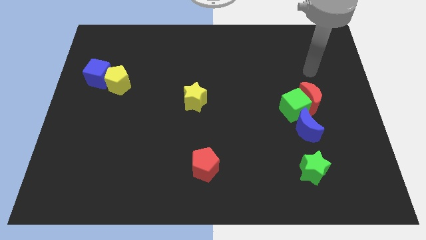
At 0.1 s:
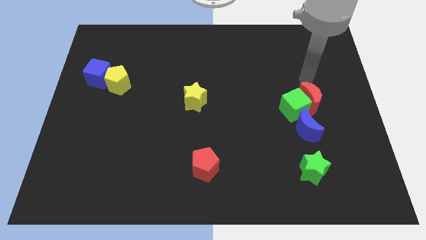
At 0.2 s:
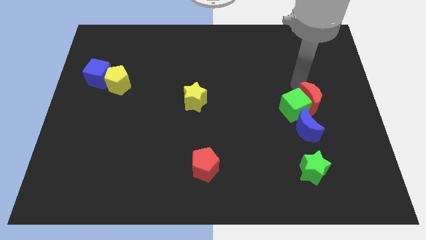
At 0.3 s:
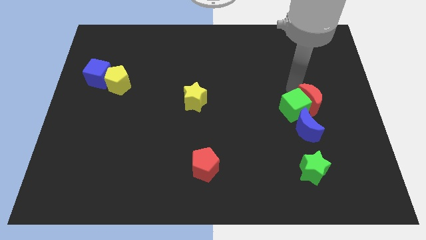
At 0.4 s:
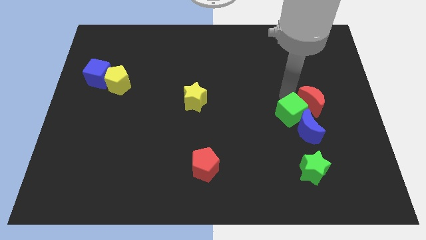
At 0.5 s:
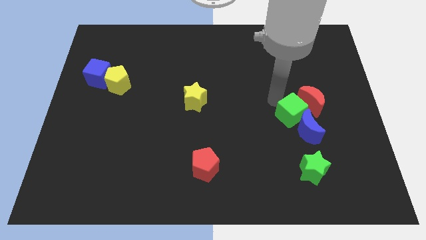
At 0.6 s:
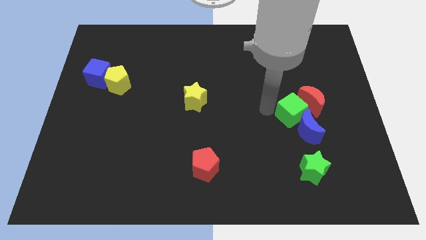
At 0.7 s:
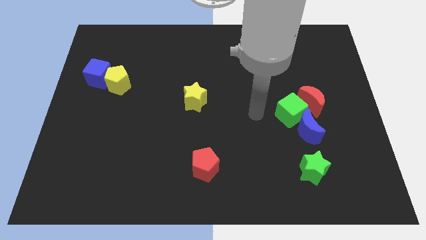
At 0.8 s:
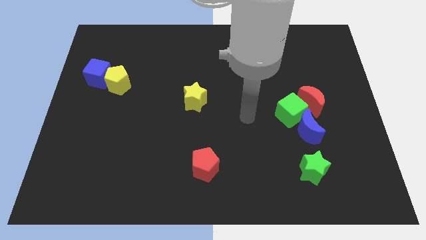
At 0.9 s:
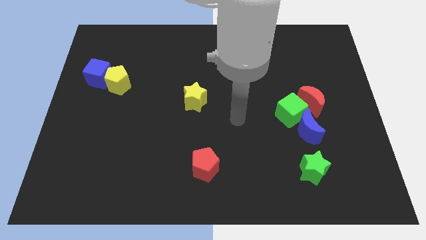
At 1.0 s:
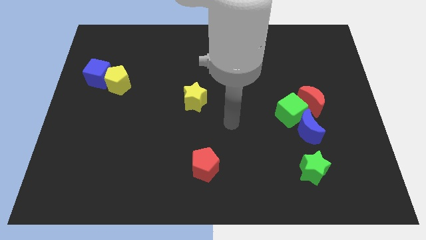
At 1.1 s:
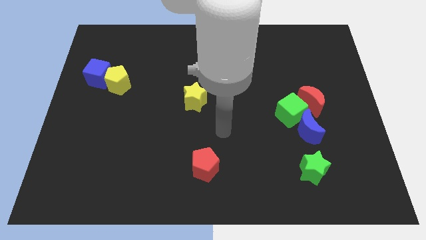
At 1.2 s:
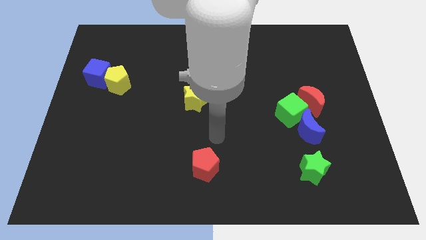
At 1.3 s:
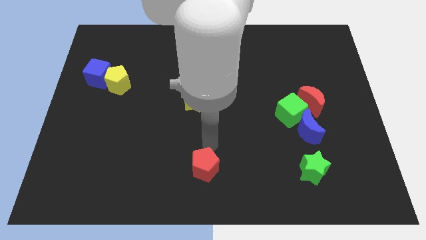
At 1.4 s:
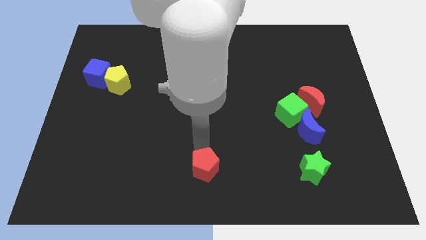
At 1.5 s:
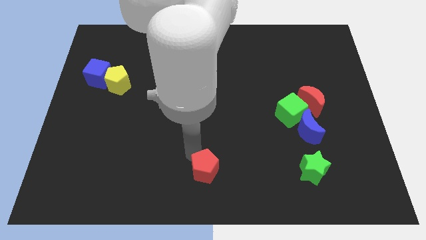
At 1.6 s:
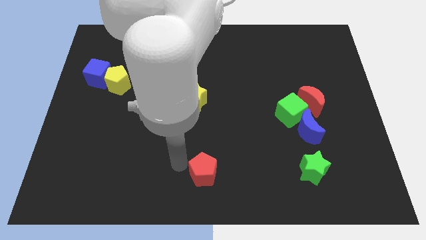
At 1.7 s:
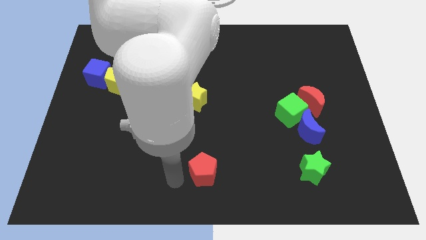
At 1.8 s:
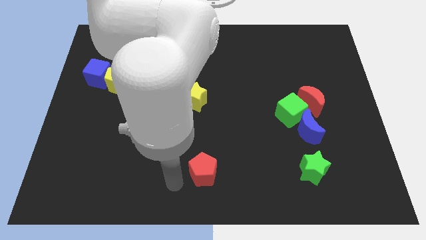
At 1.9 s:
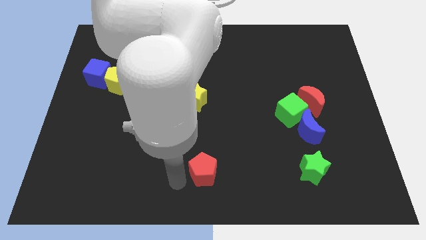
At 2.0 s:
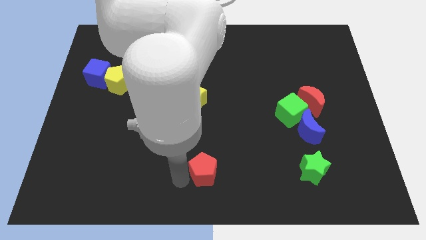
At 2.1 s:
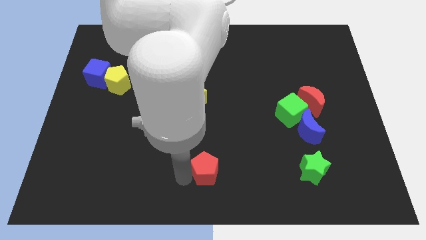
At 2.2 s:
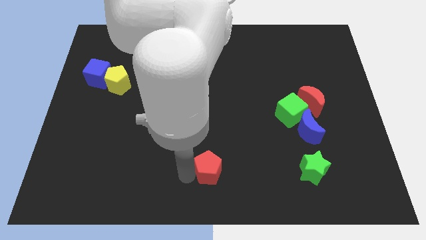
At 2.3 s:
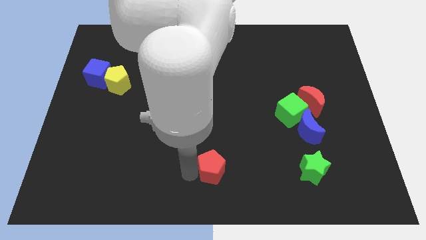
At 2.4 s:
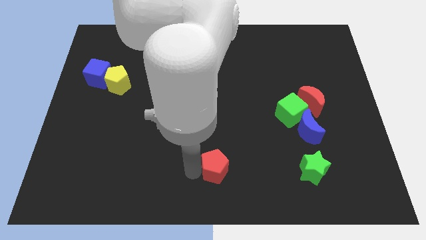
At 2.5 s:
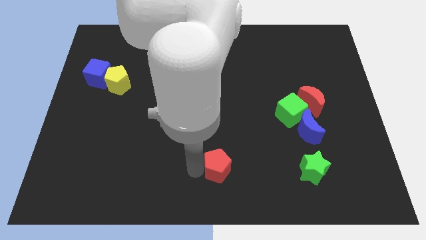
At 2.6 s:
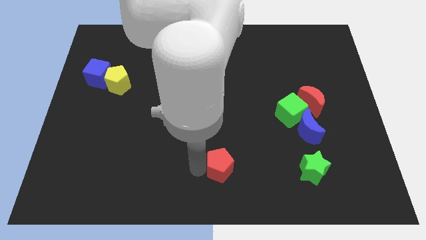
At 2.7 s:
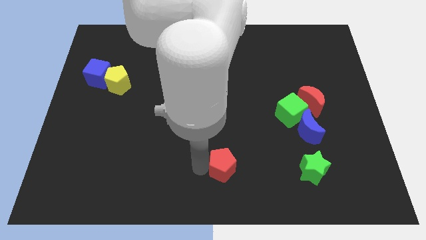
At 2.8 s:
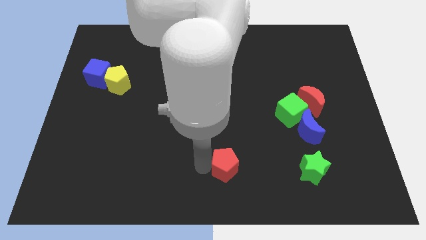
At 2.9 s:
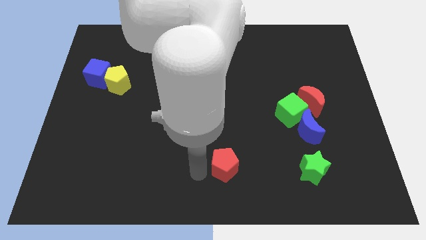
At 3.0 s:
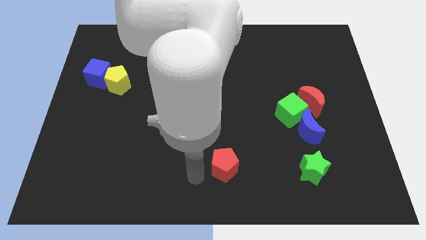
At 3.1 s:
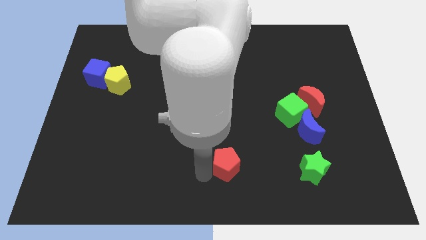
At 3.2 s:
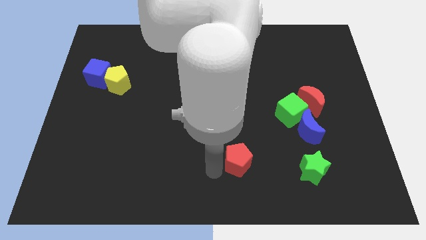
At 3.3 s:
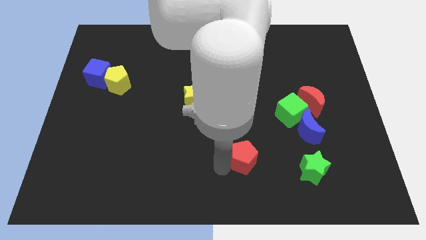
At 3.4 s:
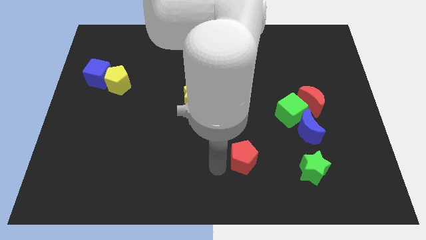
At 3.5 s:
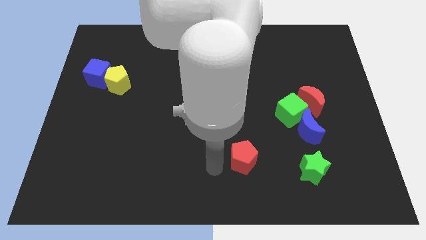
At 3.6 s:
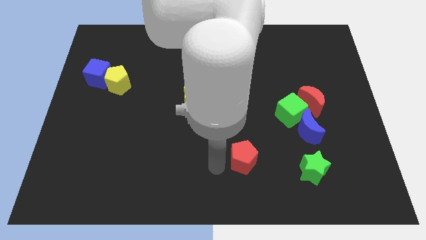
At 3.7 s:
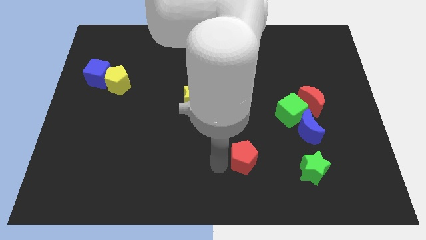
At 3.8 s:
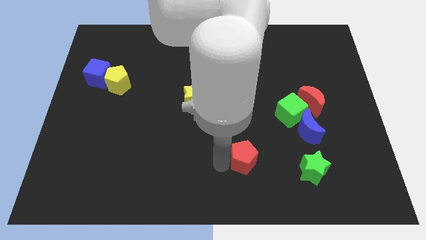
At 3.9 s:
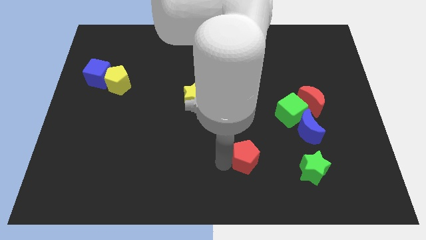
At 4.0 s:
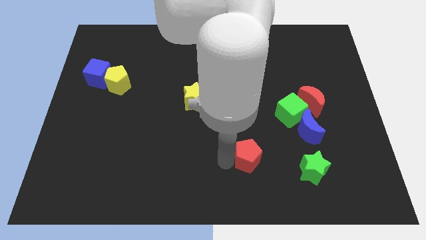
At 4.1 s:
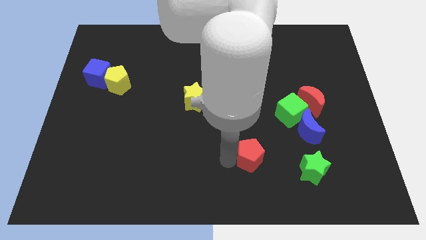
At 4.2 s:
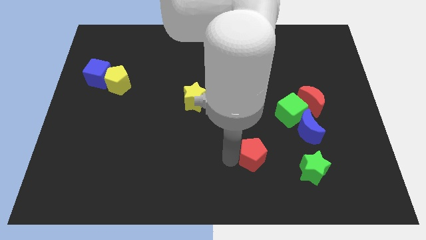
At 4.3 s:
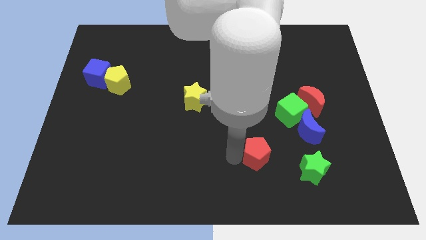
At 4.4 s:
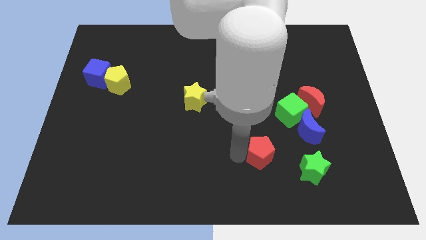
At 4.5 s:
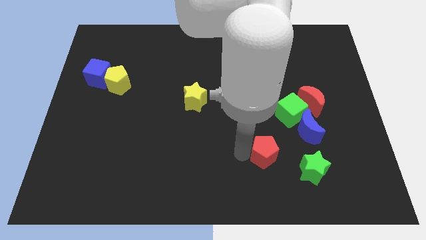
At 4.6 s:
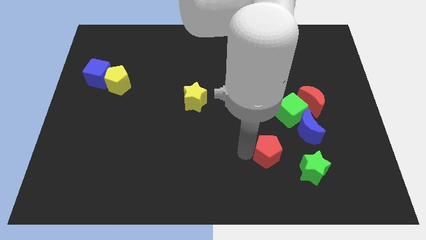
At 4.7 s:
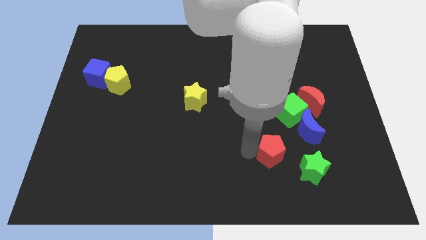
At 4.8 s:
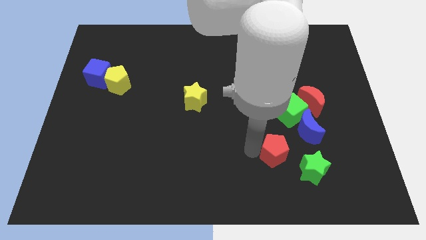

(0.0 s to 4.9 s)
push the red pentagon below the green cube

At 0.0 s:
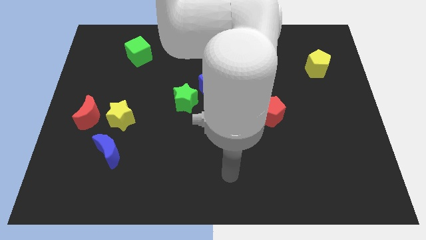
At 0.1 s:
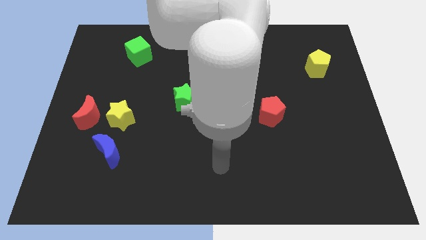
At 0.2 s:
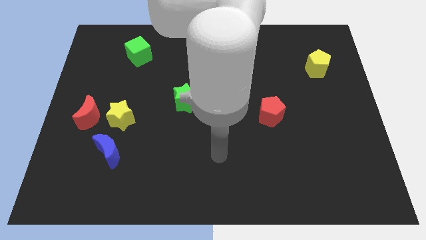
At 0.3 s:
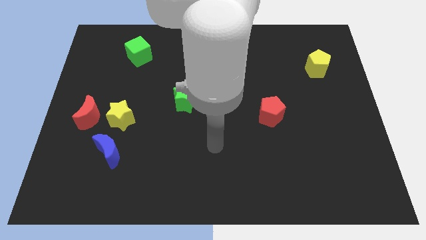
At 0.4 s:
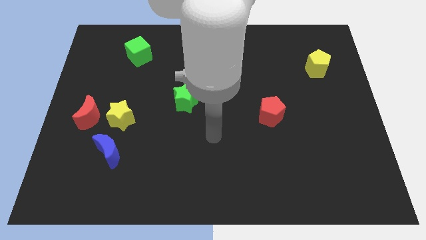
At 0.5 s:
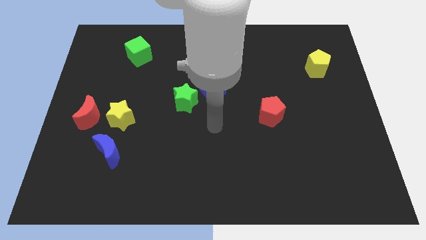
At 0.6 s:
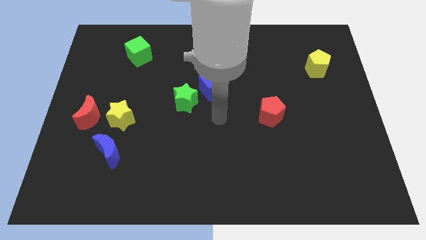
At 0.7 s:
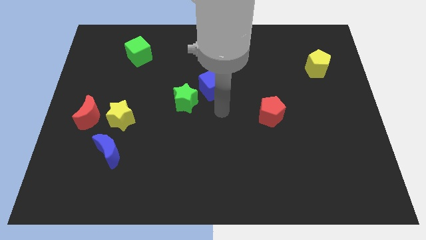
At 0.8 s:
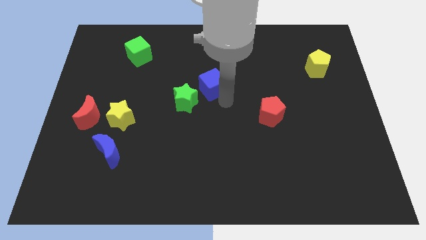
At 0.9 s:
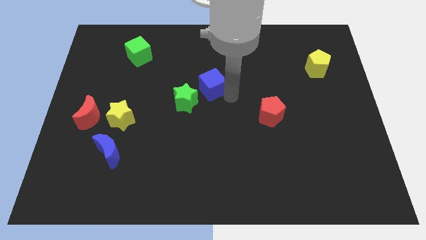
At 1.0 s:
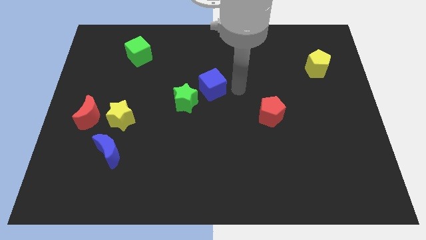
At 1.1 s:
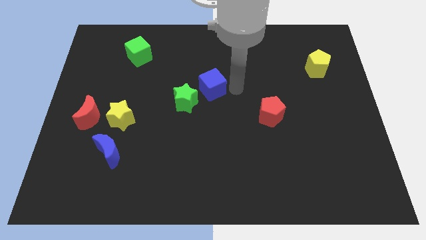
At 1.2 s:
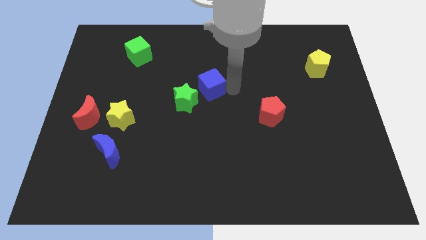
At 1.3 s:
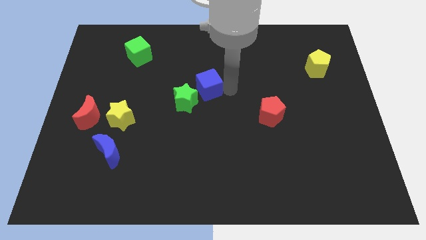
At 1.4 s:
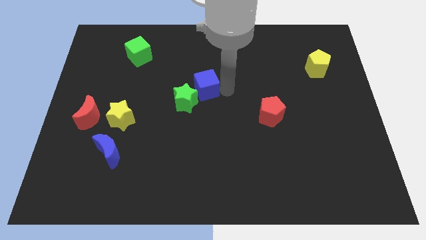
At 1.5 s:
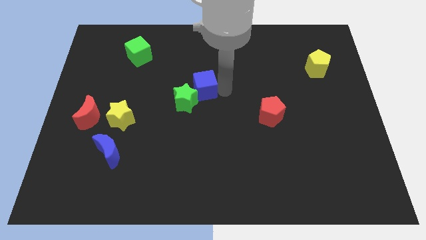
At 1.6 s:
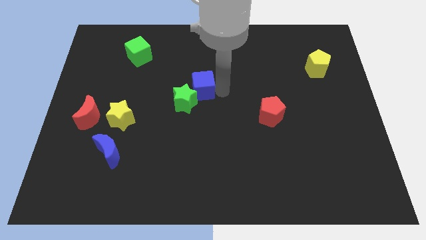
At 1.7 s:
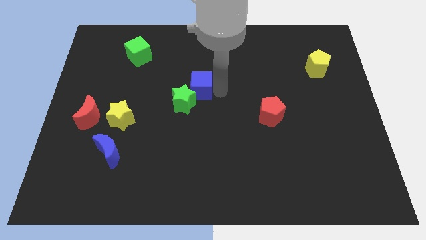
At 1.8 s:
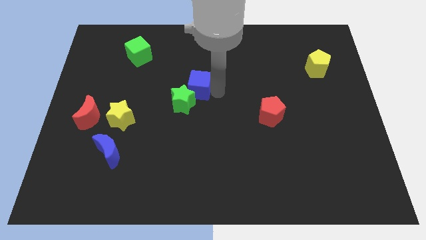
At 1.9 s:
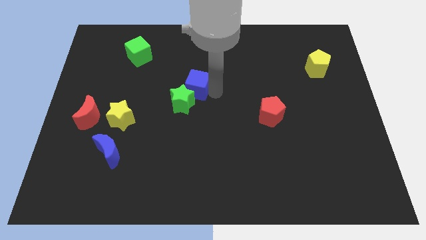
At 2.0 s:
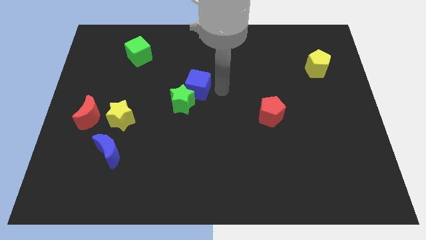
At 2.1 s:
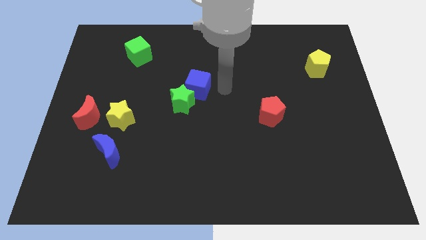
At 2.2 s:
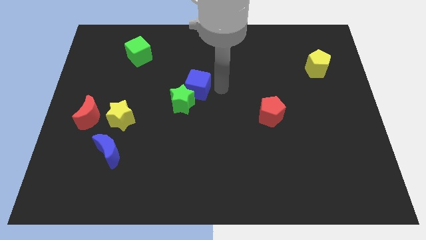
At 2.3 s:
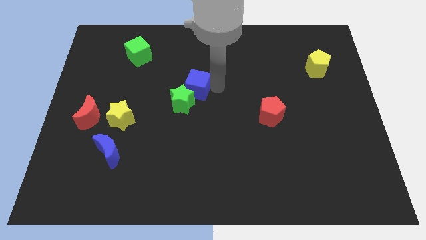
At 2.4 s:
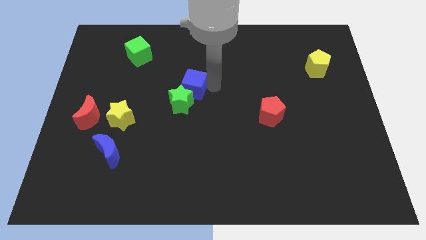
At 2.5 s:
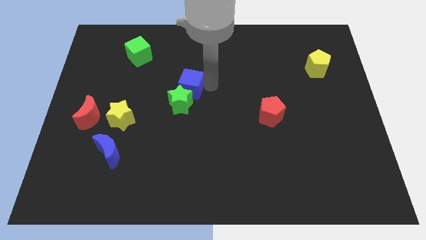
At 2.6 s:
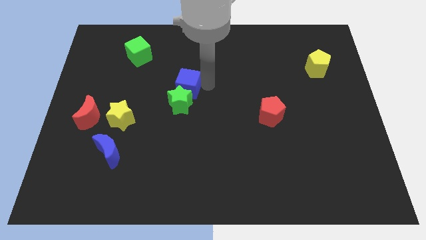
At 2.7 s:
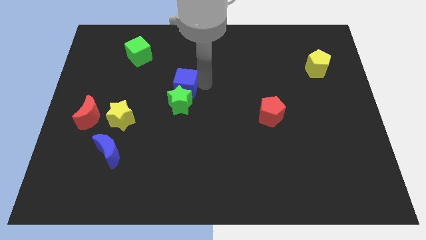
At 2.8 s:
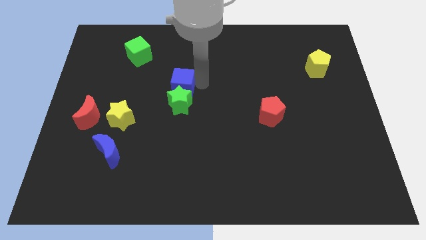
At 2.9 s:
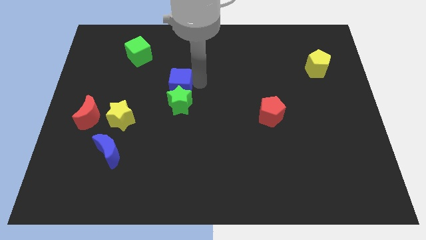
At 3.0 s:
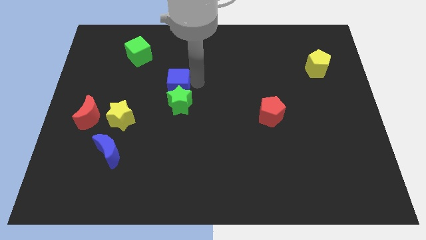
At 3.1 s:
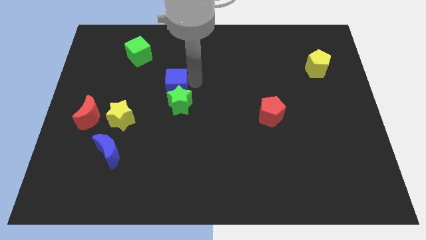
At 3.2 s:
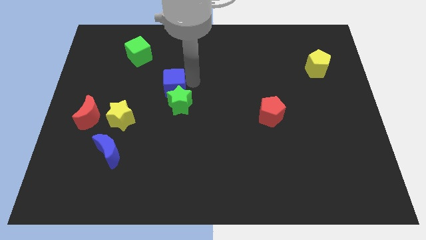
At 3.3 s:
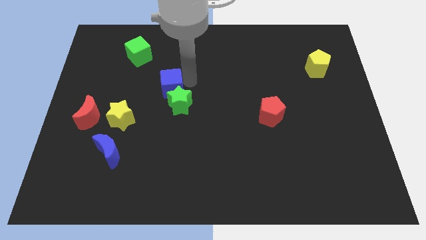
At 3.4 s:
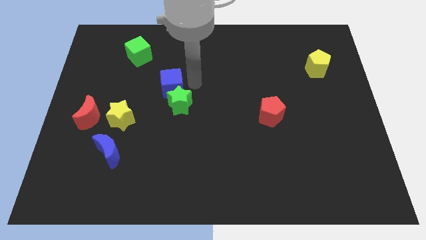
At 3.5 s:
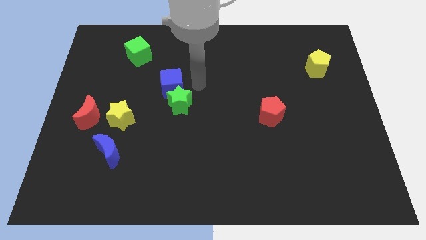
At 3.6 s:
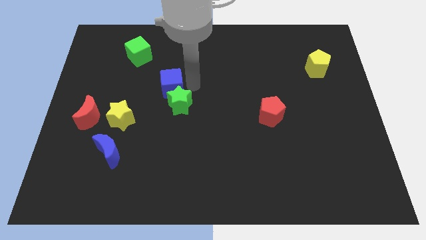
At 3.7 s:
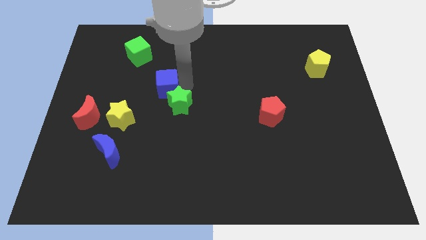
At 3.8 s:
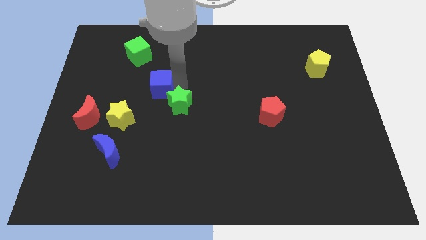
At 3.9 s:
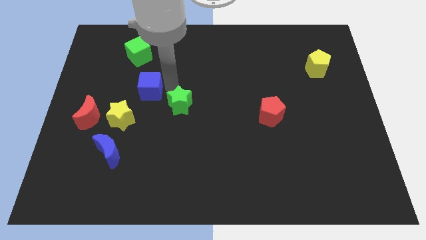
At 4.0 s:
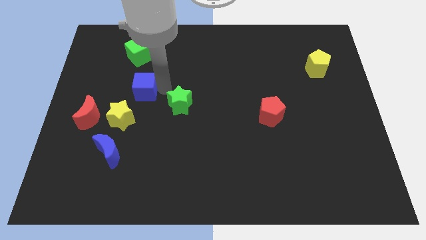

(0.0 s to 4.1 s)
push the blue cube above the yellow star
